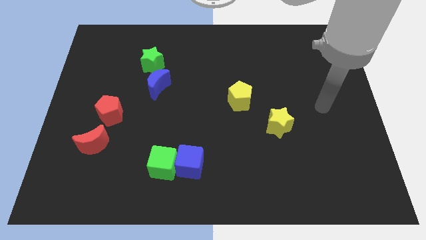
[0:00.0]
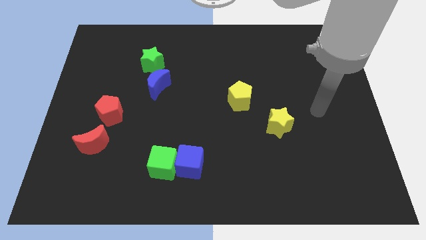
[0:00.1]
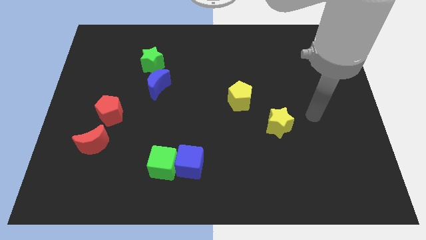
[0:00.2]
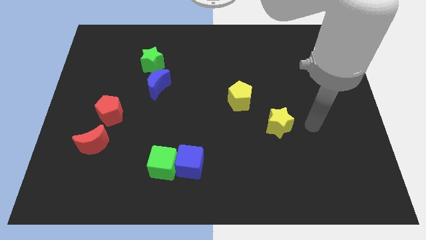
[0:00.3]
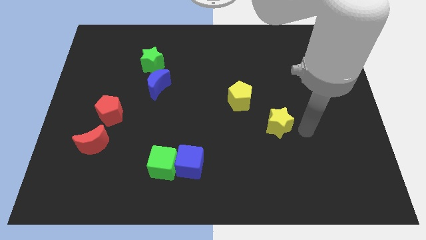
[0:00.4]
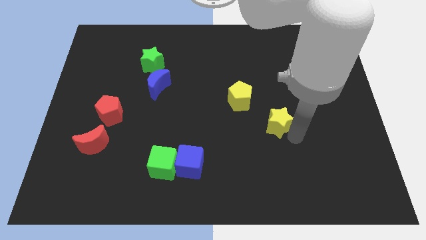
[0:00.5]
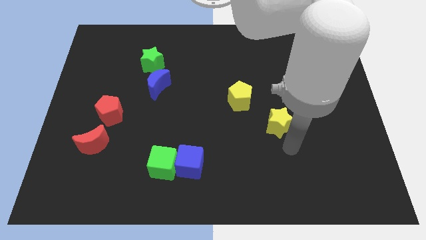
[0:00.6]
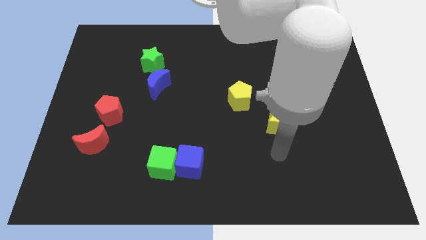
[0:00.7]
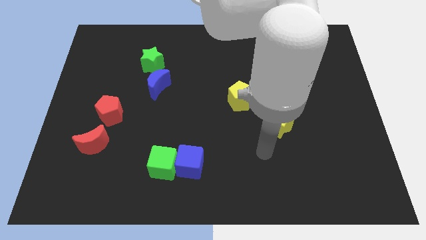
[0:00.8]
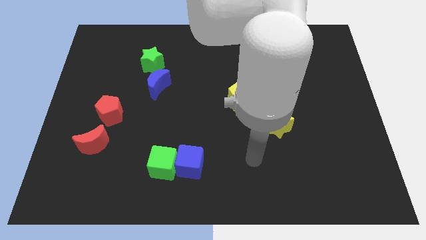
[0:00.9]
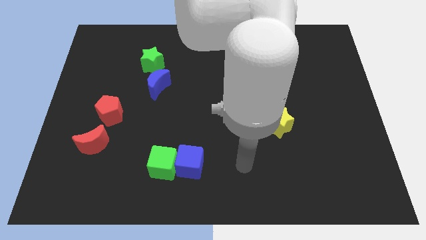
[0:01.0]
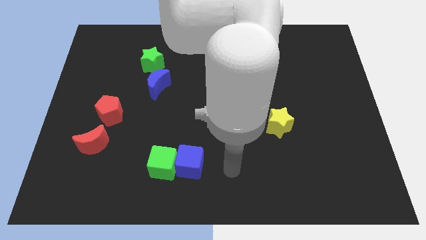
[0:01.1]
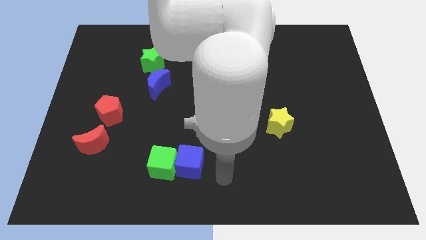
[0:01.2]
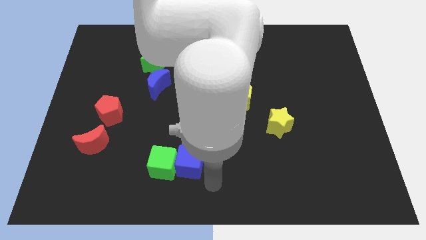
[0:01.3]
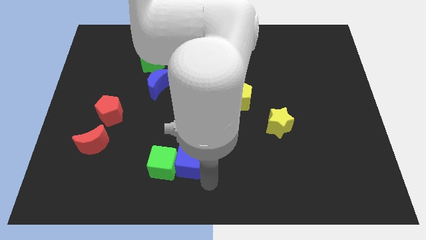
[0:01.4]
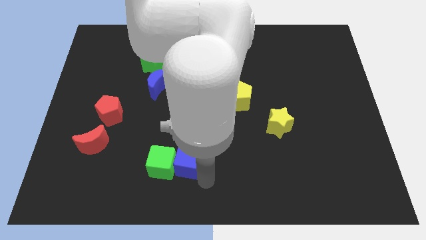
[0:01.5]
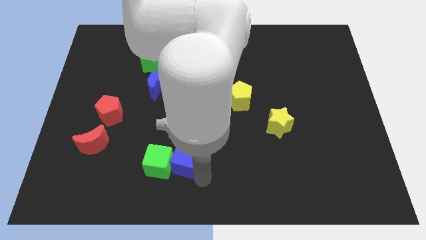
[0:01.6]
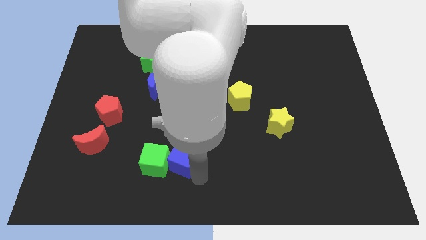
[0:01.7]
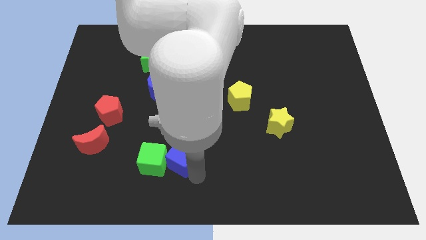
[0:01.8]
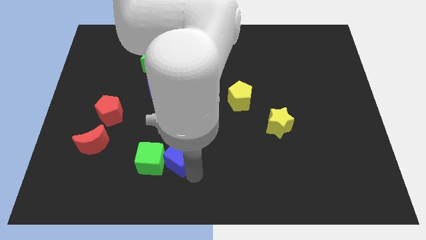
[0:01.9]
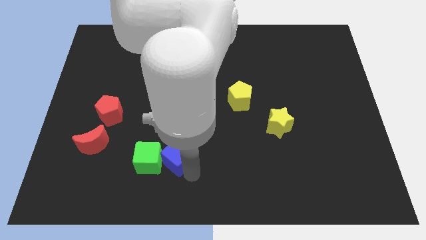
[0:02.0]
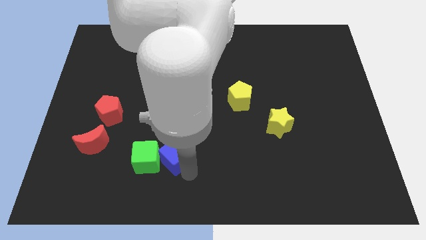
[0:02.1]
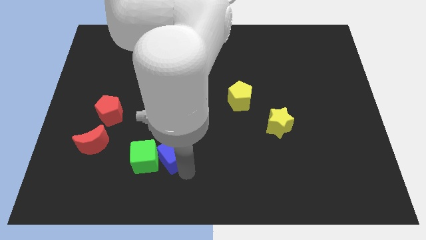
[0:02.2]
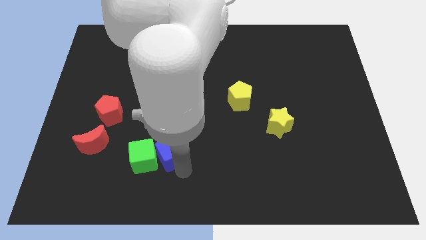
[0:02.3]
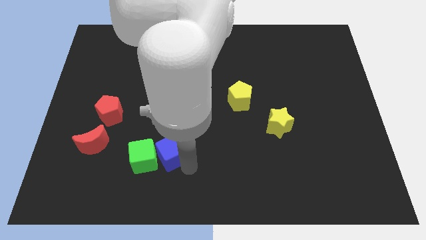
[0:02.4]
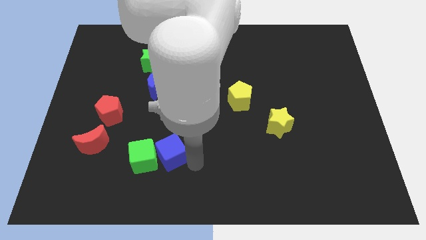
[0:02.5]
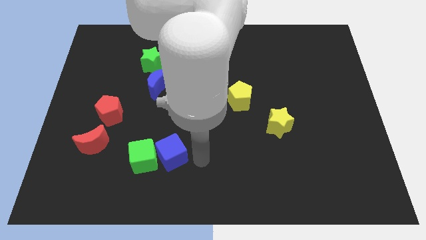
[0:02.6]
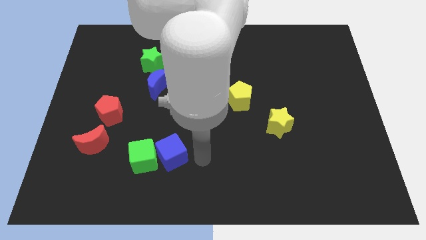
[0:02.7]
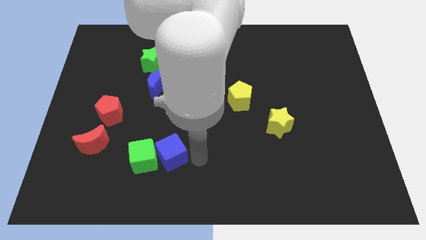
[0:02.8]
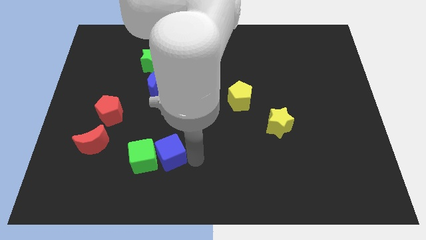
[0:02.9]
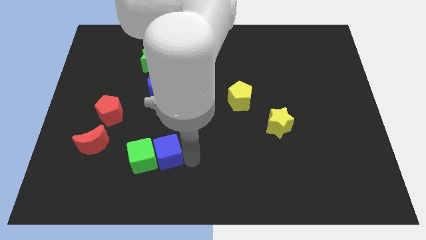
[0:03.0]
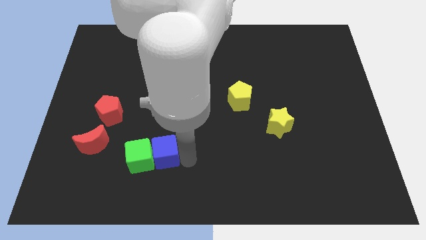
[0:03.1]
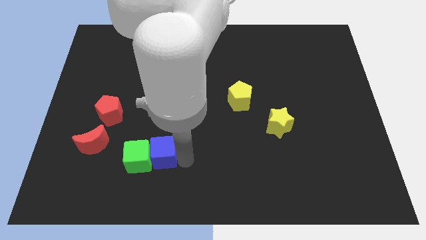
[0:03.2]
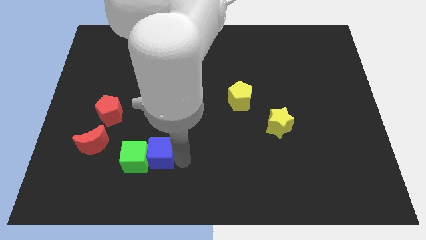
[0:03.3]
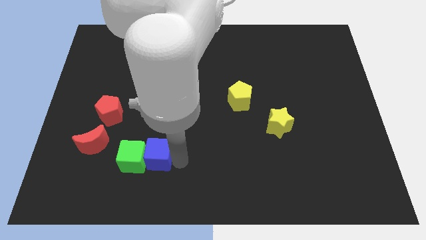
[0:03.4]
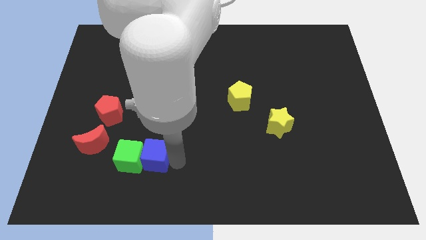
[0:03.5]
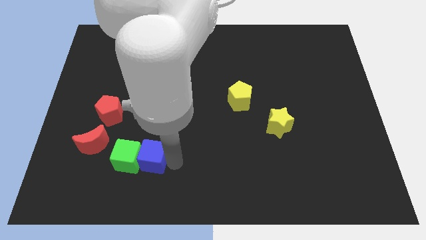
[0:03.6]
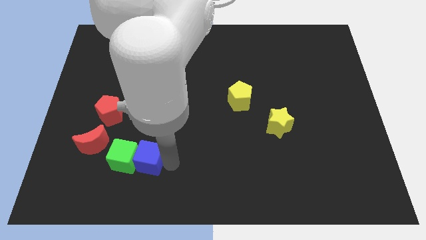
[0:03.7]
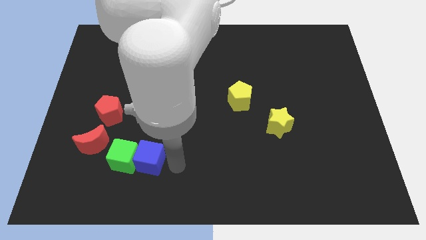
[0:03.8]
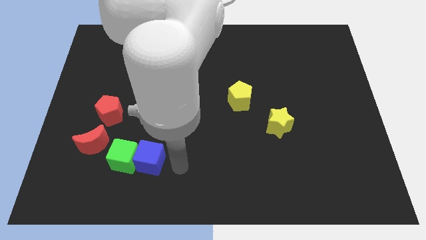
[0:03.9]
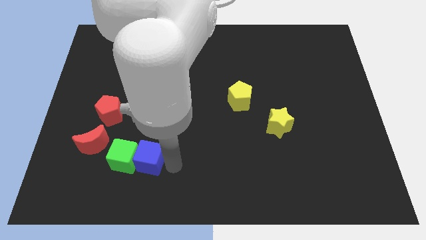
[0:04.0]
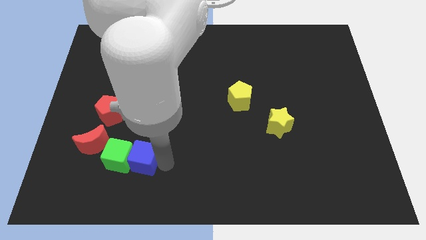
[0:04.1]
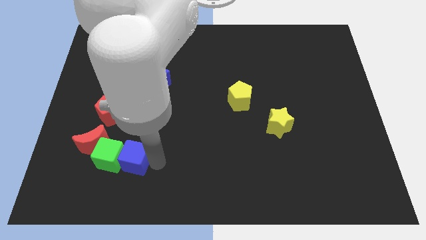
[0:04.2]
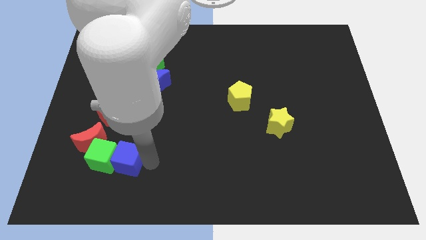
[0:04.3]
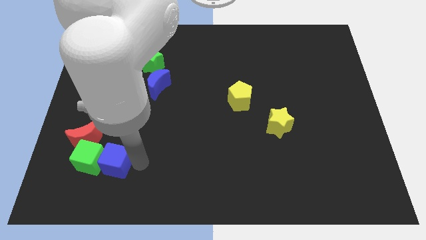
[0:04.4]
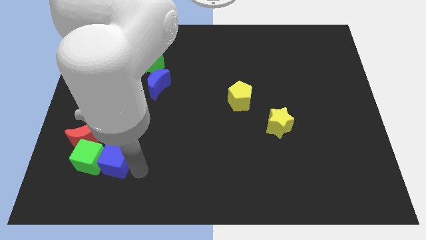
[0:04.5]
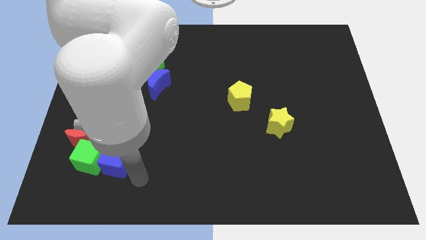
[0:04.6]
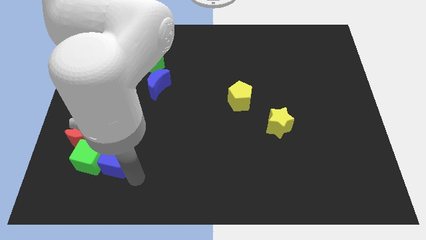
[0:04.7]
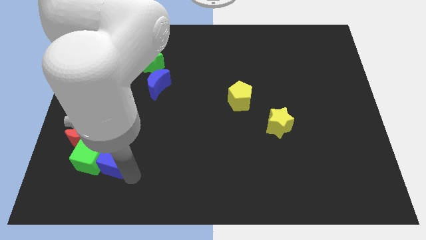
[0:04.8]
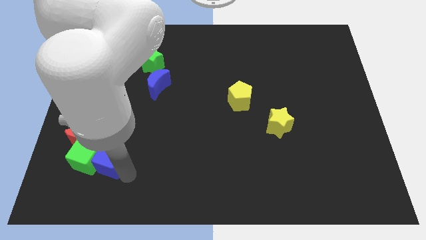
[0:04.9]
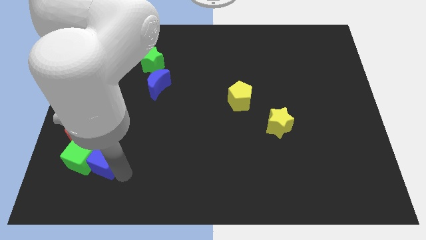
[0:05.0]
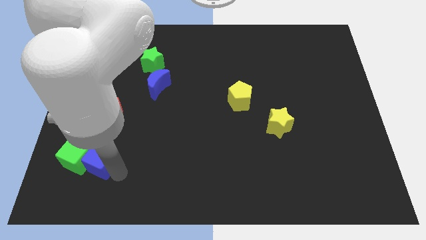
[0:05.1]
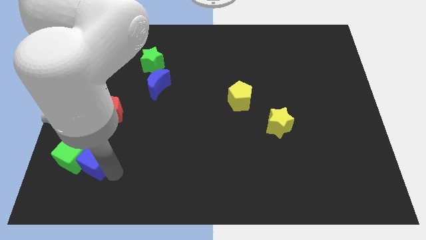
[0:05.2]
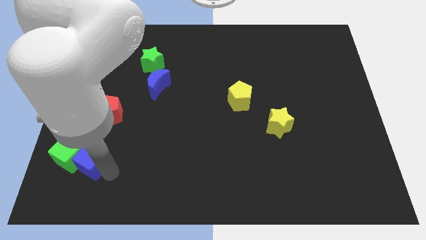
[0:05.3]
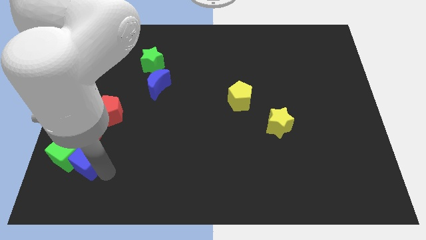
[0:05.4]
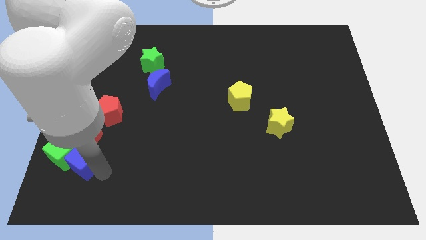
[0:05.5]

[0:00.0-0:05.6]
slide the blue cube to the red moon

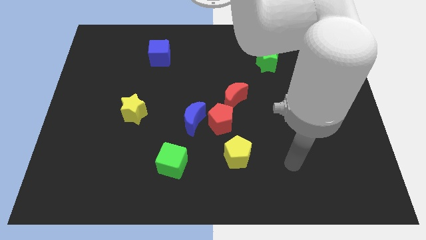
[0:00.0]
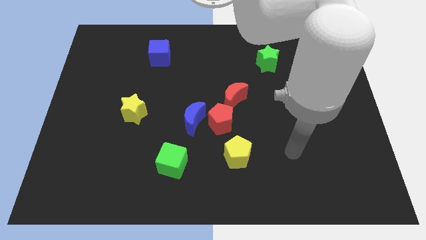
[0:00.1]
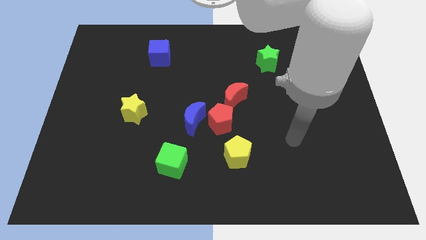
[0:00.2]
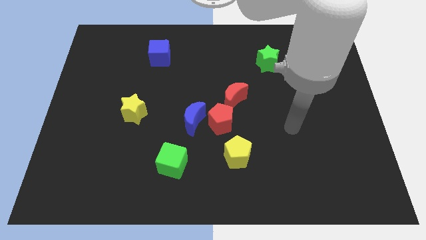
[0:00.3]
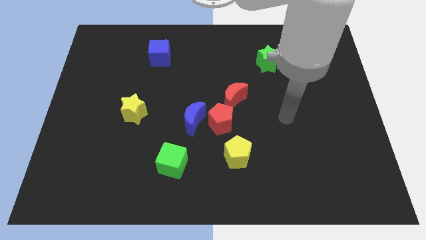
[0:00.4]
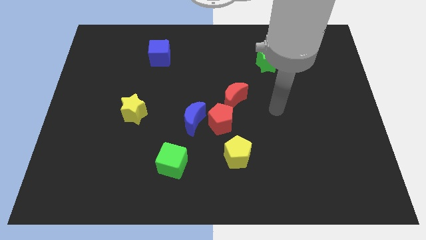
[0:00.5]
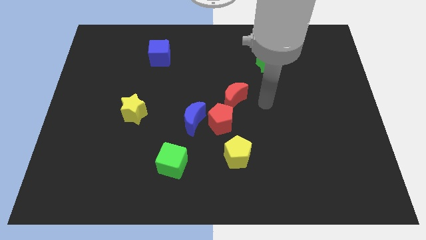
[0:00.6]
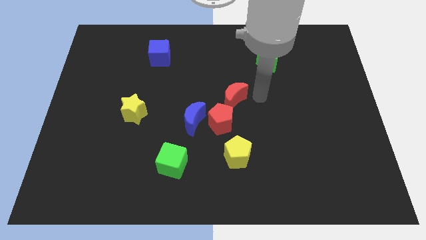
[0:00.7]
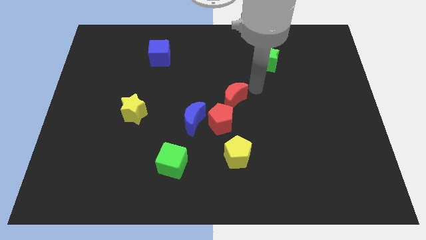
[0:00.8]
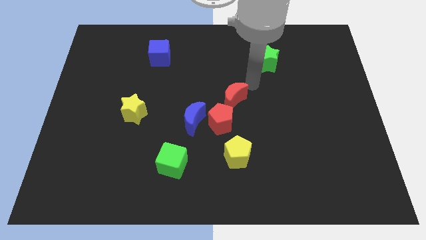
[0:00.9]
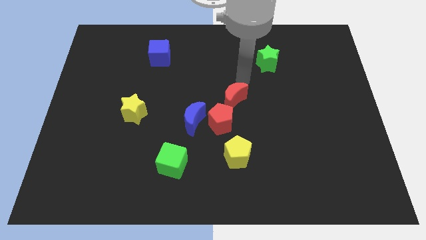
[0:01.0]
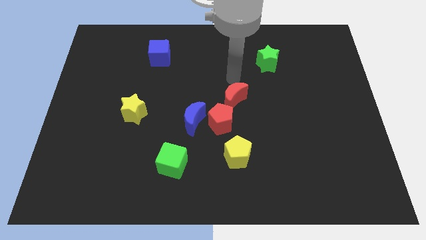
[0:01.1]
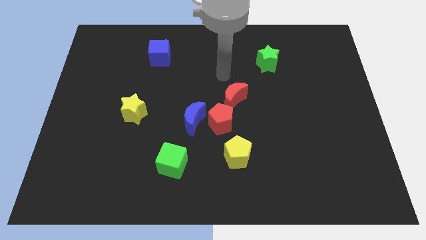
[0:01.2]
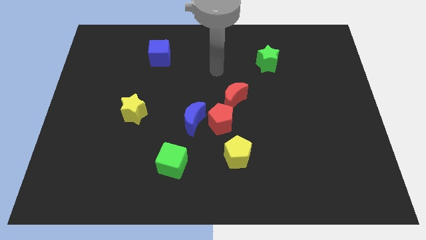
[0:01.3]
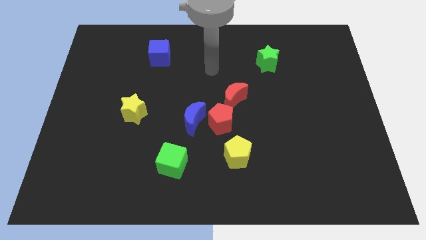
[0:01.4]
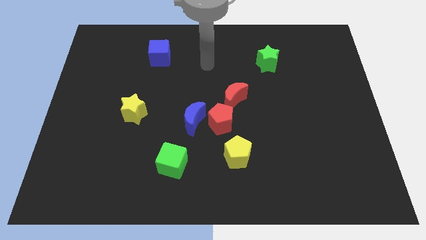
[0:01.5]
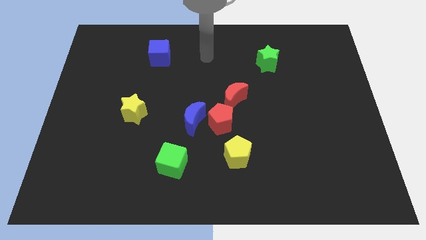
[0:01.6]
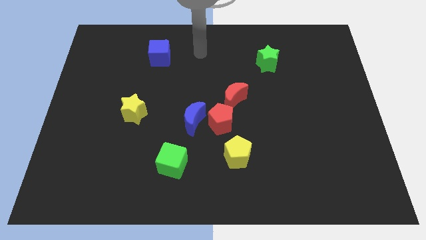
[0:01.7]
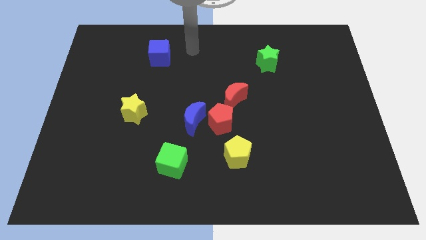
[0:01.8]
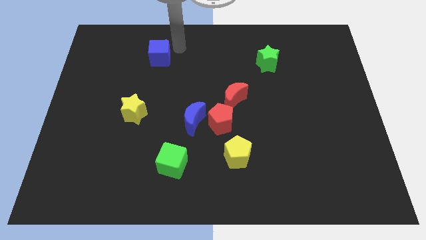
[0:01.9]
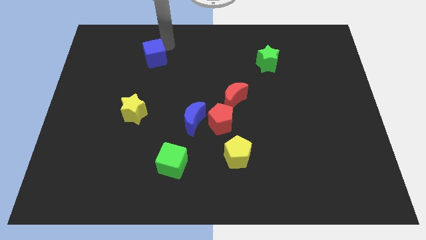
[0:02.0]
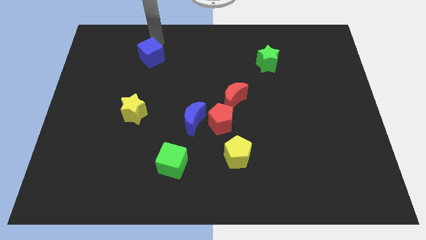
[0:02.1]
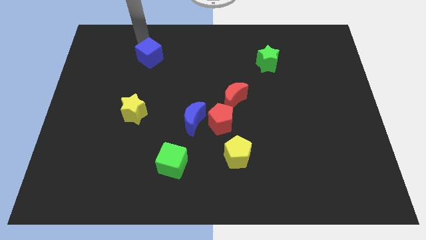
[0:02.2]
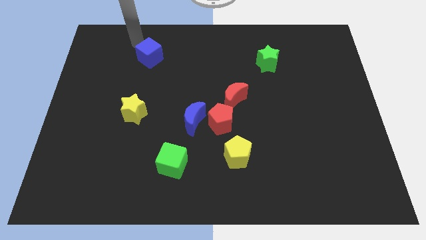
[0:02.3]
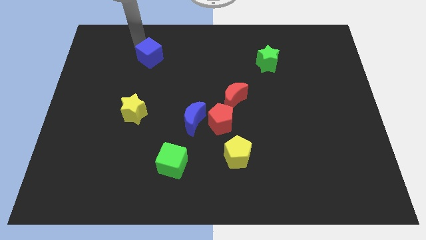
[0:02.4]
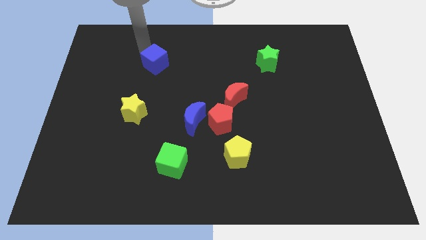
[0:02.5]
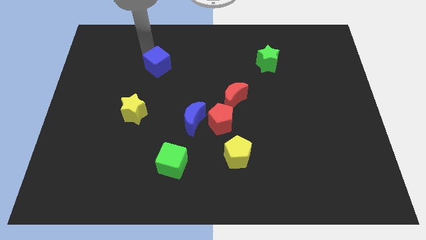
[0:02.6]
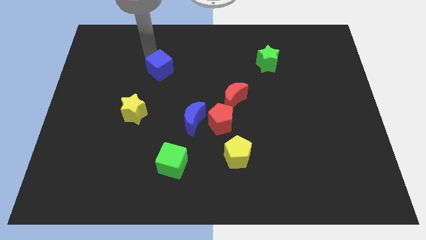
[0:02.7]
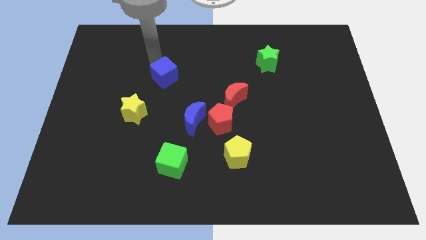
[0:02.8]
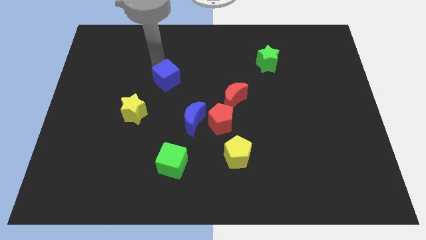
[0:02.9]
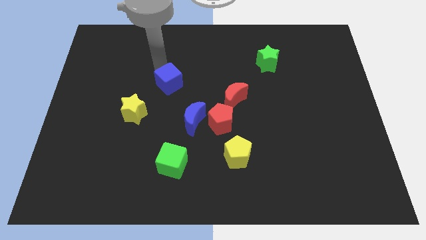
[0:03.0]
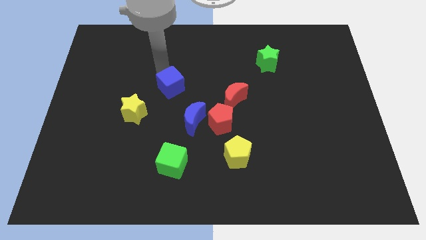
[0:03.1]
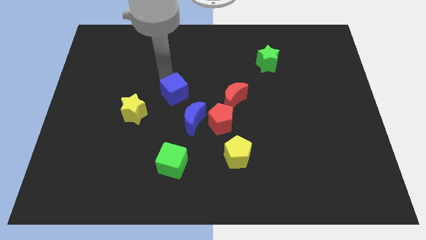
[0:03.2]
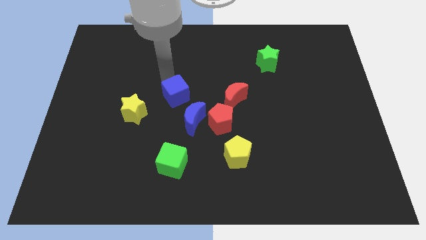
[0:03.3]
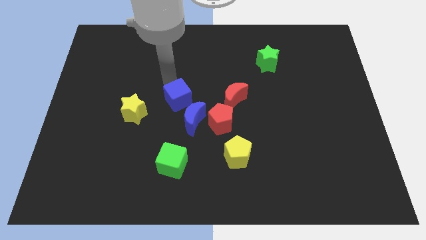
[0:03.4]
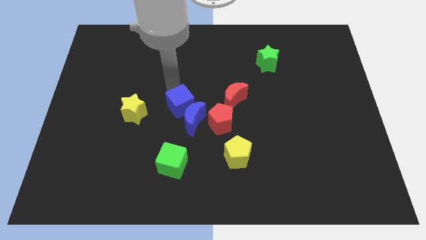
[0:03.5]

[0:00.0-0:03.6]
move the blue cube towards the blue moon
